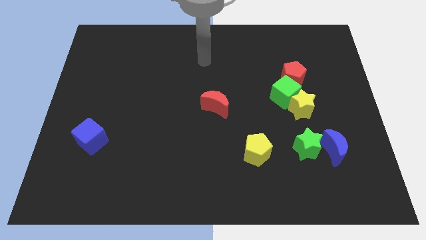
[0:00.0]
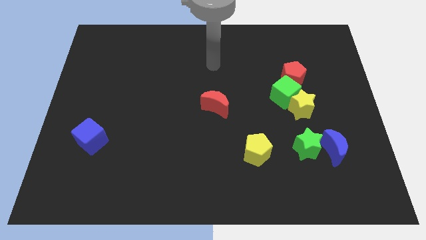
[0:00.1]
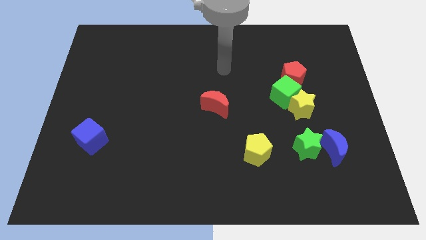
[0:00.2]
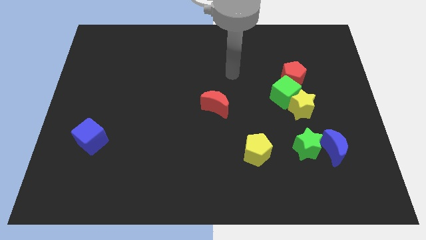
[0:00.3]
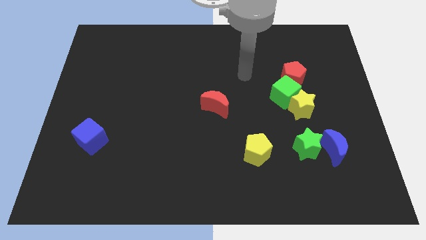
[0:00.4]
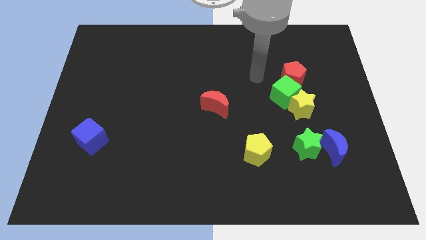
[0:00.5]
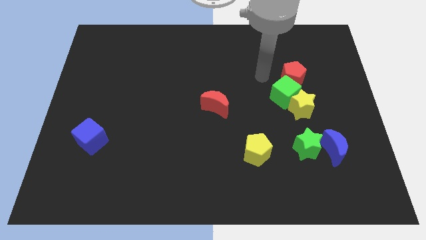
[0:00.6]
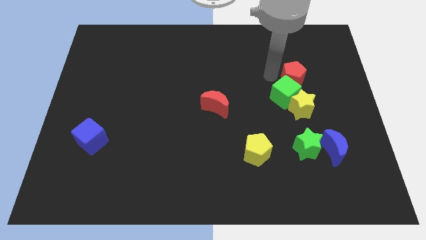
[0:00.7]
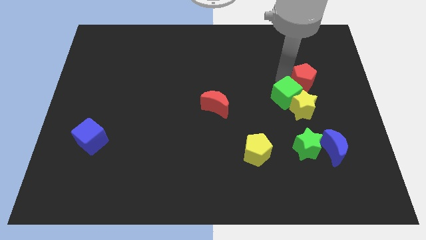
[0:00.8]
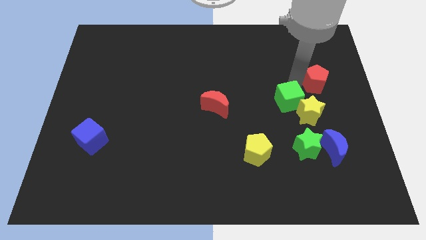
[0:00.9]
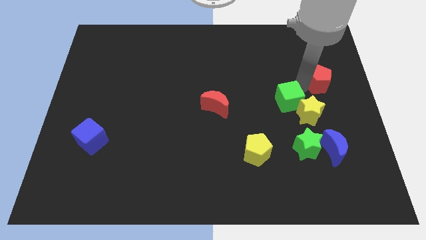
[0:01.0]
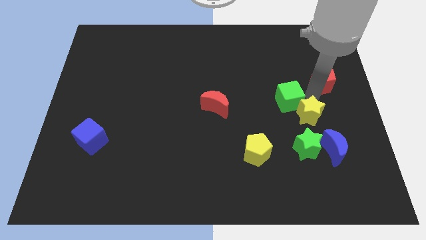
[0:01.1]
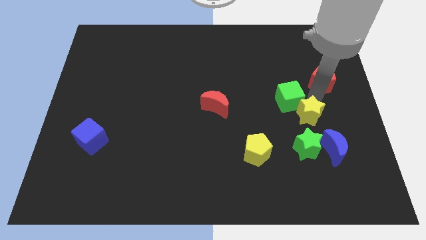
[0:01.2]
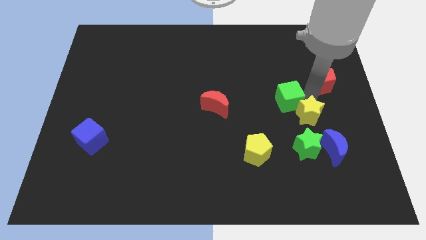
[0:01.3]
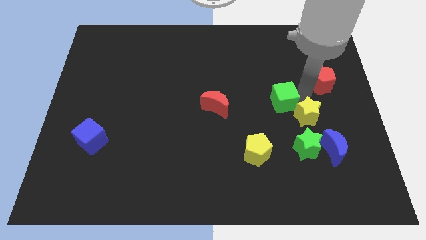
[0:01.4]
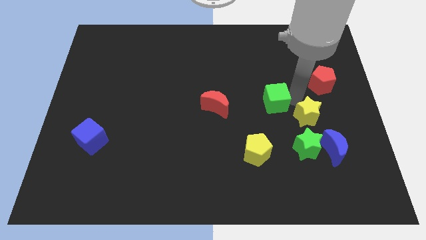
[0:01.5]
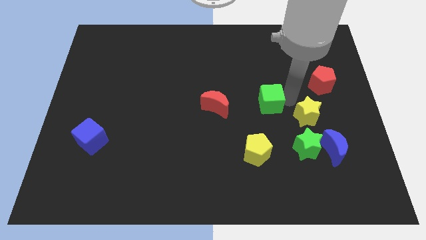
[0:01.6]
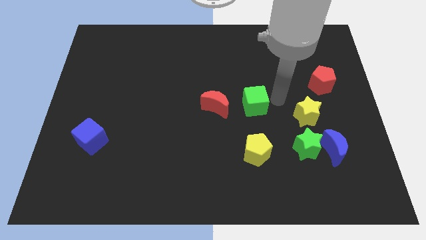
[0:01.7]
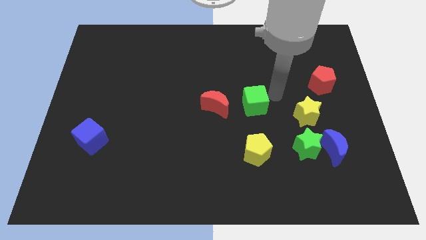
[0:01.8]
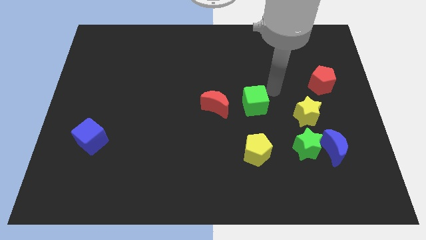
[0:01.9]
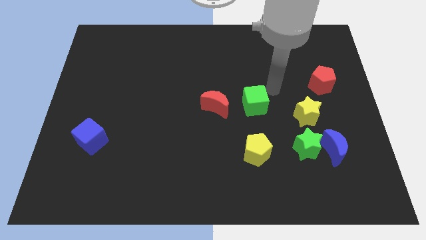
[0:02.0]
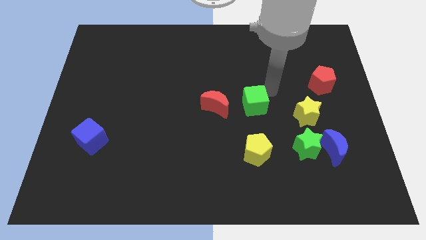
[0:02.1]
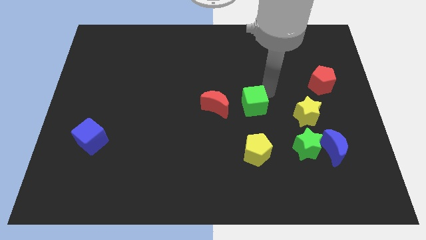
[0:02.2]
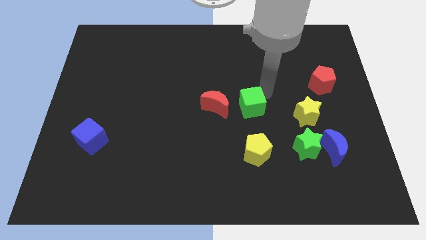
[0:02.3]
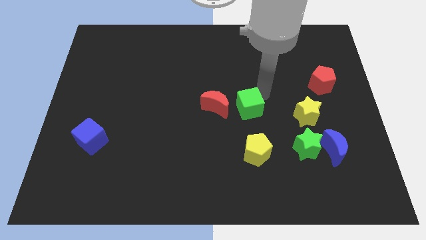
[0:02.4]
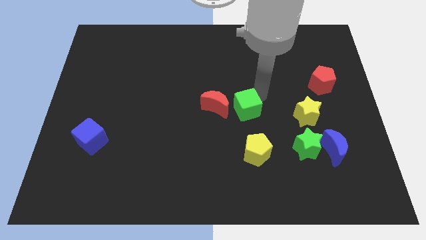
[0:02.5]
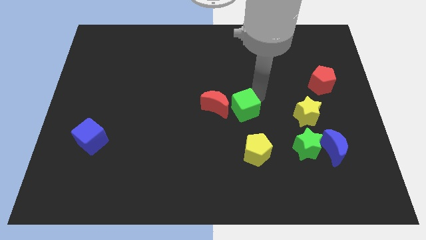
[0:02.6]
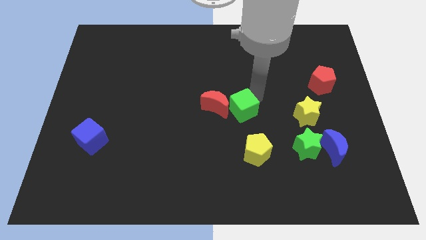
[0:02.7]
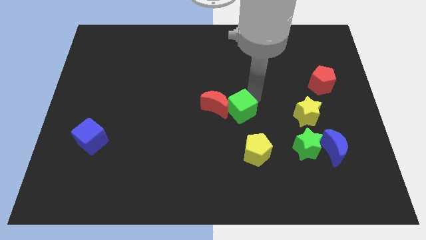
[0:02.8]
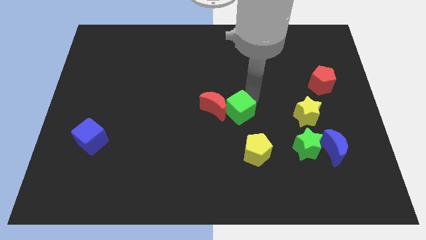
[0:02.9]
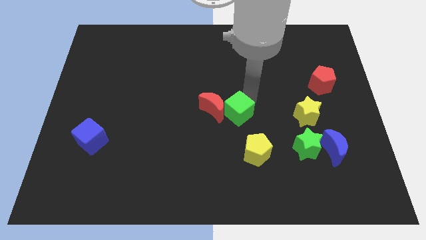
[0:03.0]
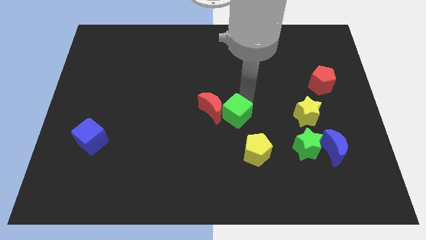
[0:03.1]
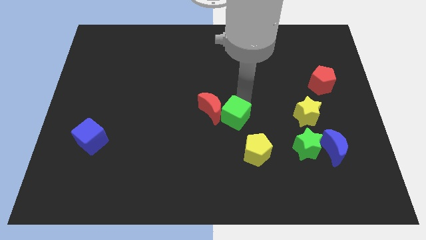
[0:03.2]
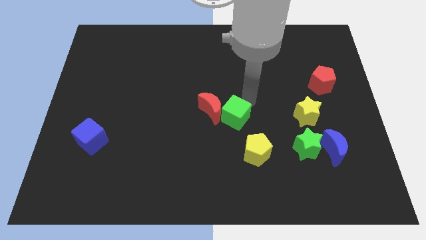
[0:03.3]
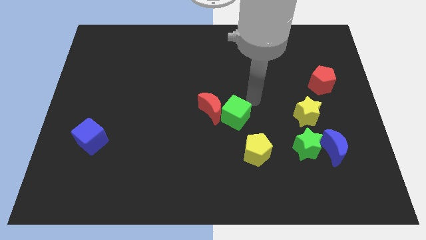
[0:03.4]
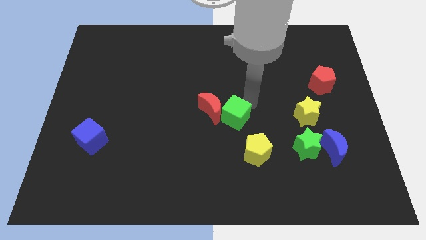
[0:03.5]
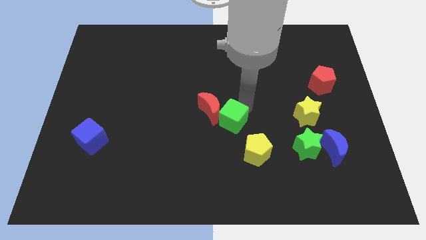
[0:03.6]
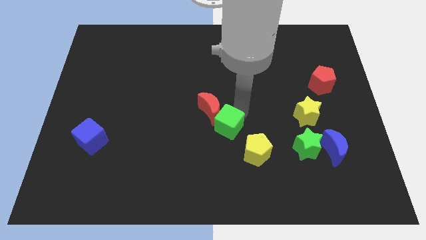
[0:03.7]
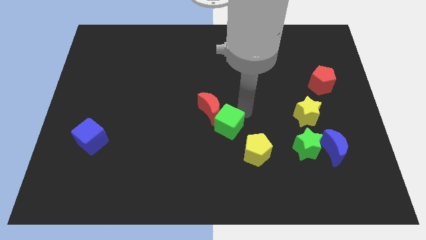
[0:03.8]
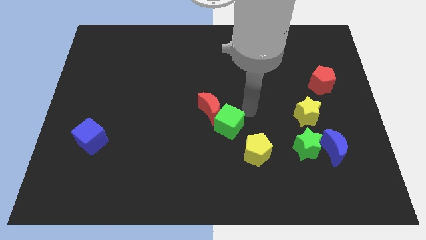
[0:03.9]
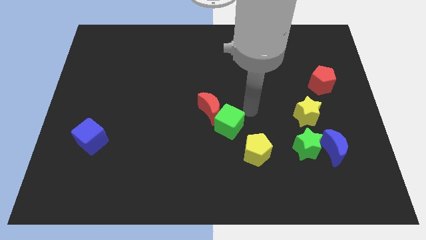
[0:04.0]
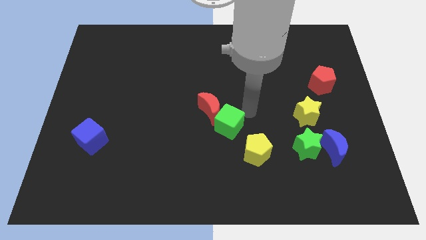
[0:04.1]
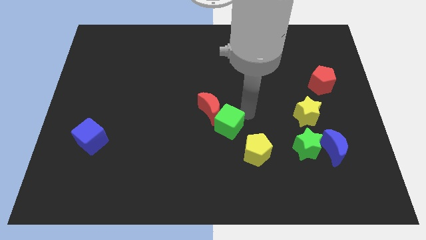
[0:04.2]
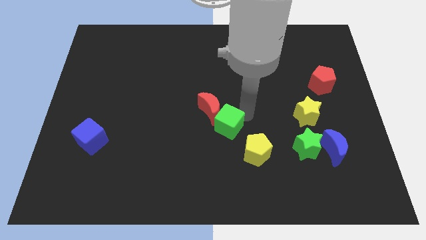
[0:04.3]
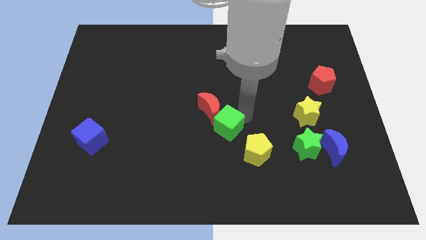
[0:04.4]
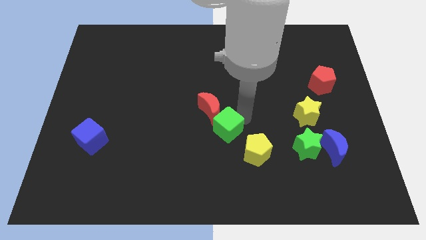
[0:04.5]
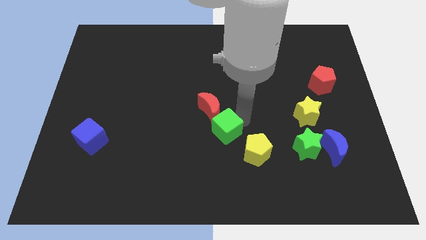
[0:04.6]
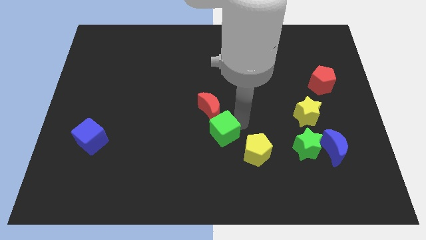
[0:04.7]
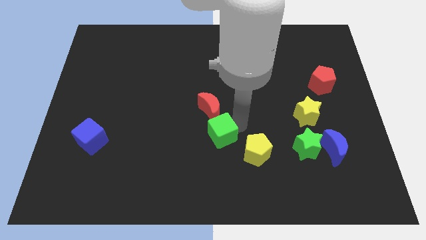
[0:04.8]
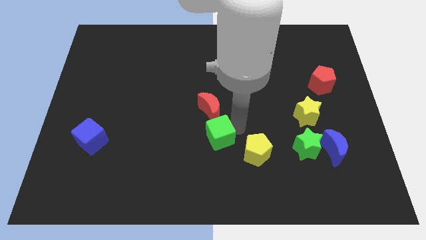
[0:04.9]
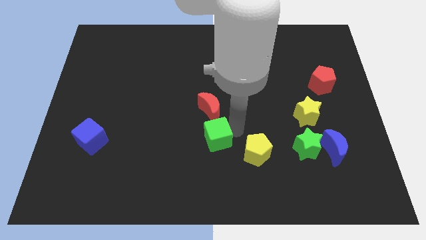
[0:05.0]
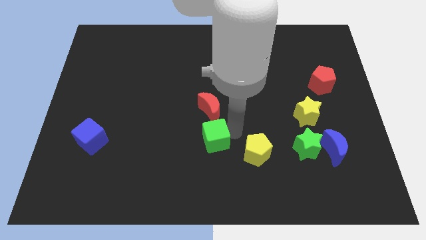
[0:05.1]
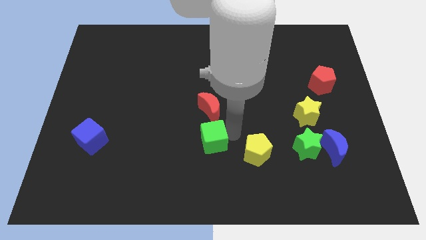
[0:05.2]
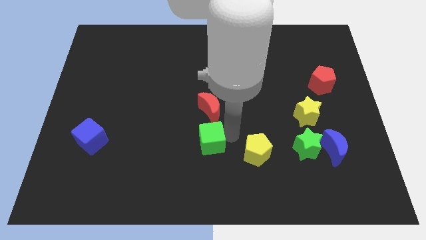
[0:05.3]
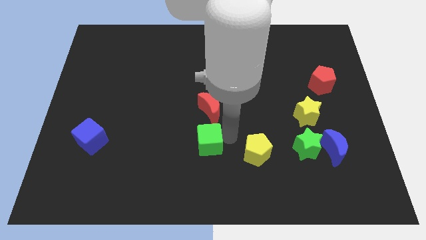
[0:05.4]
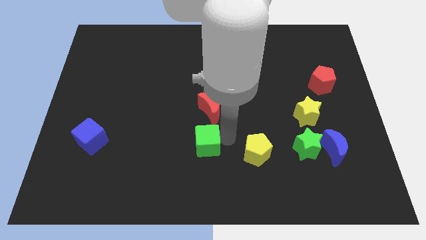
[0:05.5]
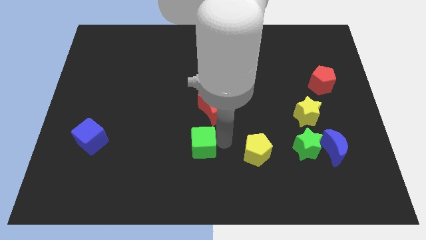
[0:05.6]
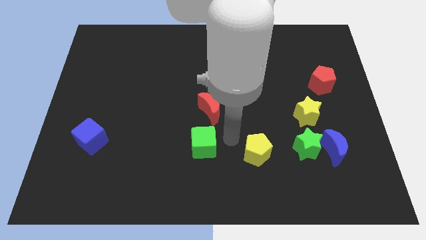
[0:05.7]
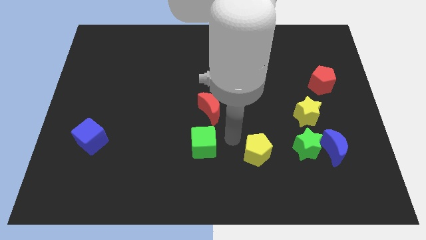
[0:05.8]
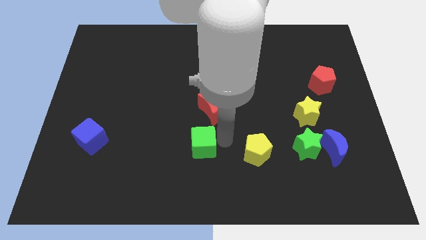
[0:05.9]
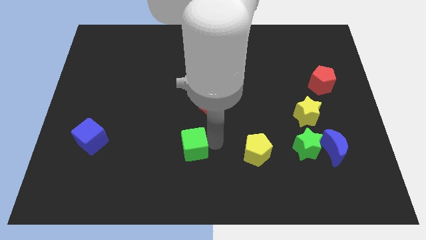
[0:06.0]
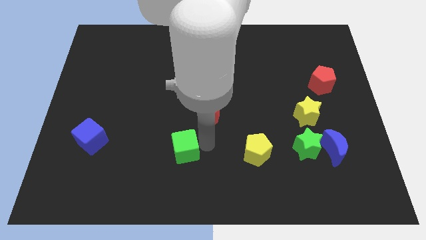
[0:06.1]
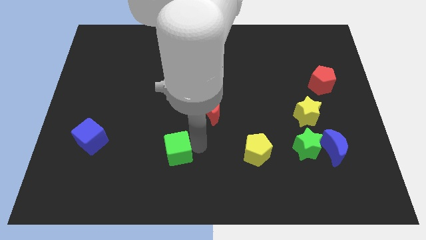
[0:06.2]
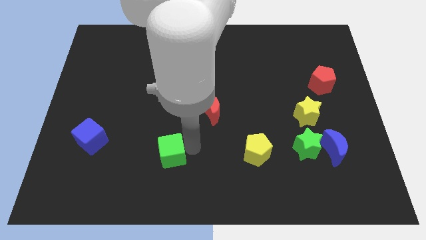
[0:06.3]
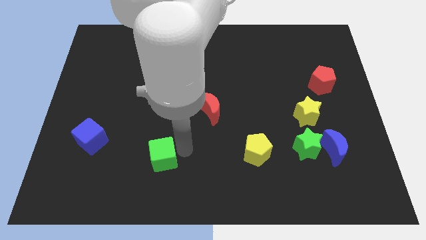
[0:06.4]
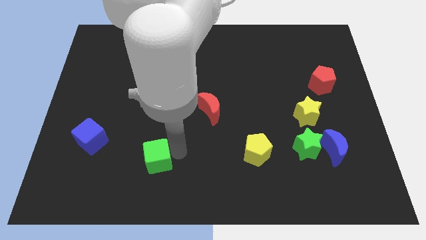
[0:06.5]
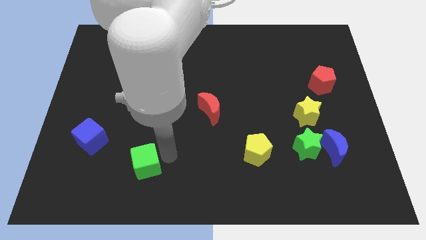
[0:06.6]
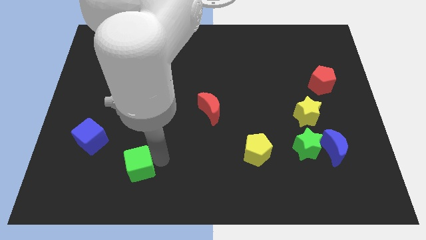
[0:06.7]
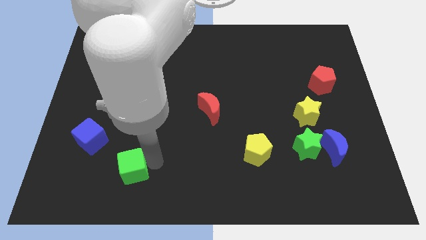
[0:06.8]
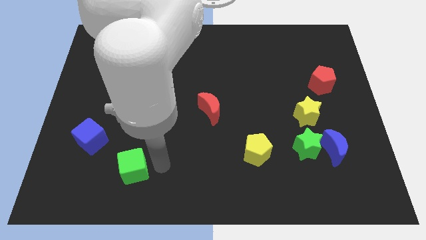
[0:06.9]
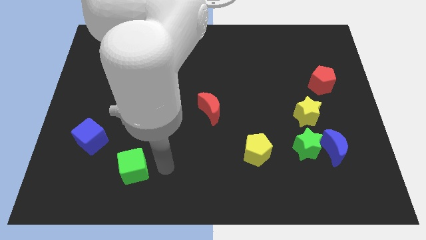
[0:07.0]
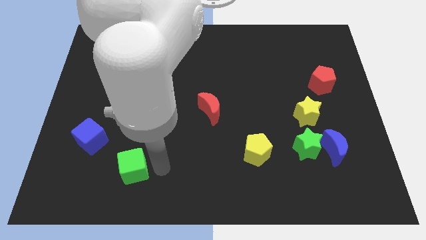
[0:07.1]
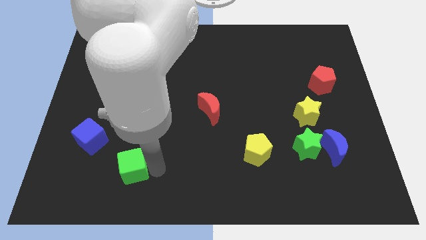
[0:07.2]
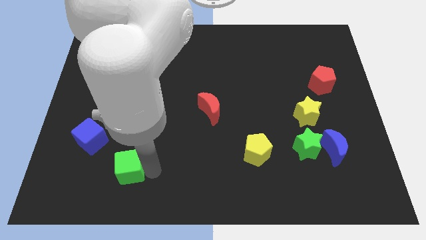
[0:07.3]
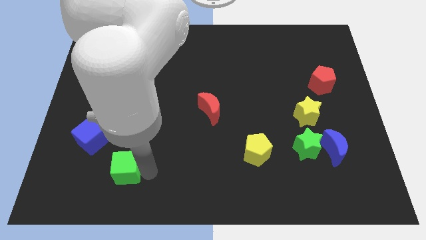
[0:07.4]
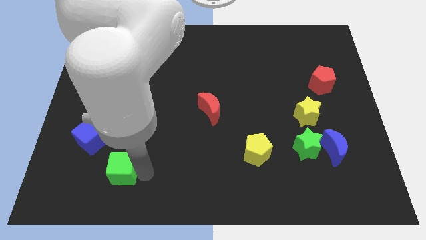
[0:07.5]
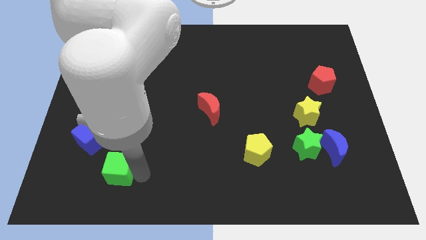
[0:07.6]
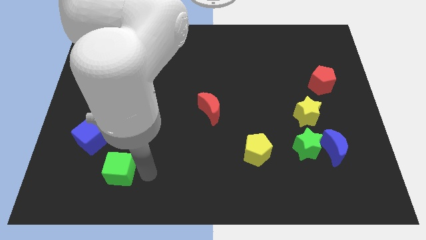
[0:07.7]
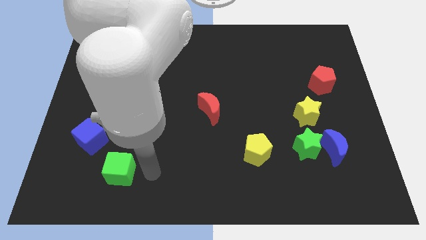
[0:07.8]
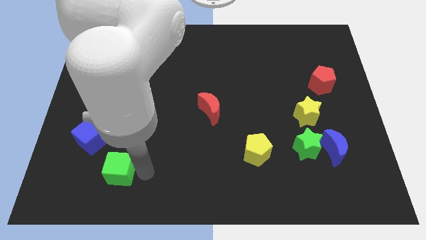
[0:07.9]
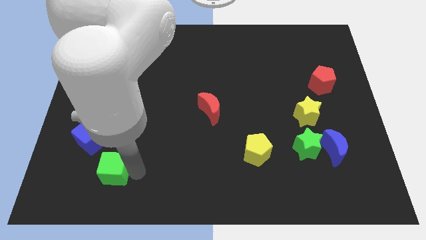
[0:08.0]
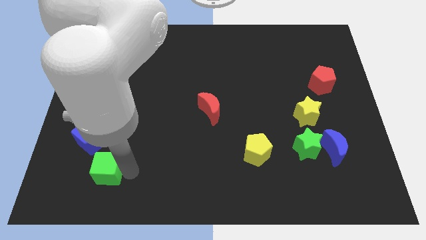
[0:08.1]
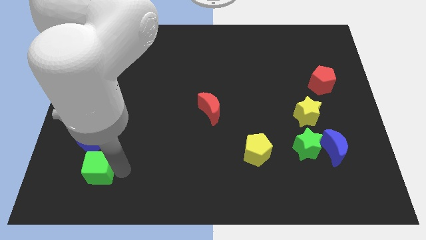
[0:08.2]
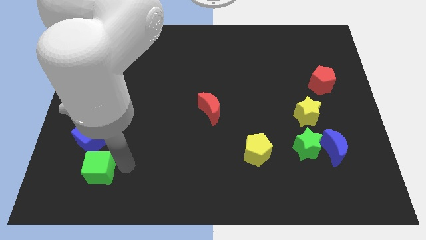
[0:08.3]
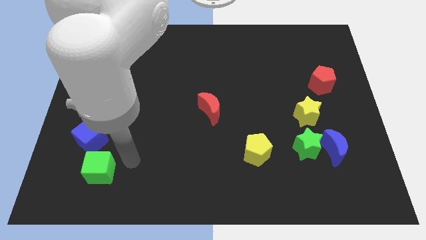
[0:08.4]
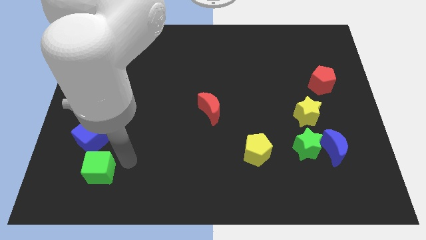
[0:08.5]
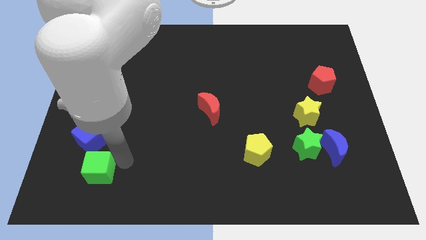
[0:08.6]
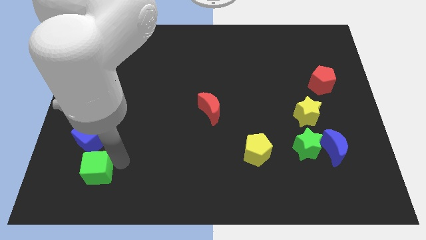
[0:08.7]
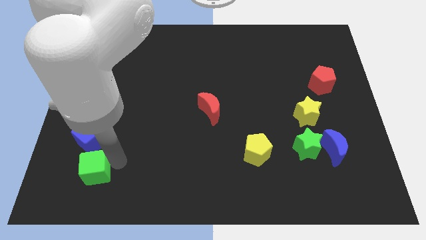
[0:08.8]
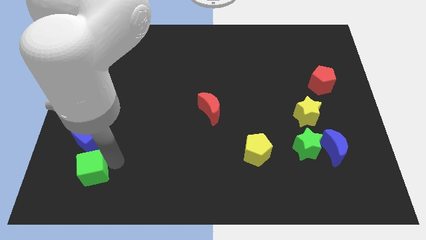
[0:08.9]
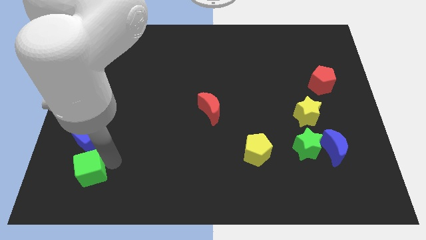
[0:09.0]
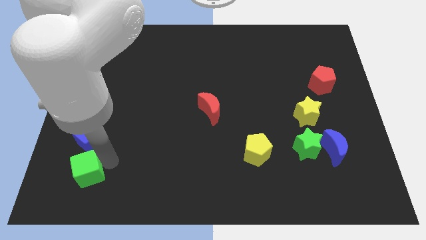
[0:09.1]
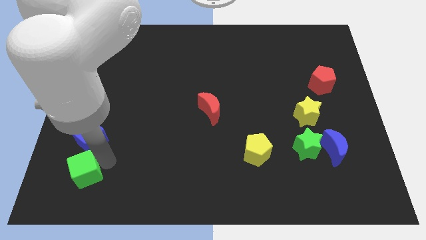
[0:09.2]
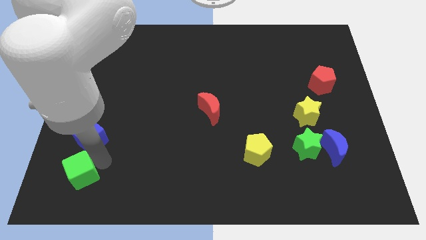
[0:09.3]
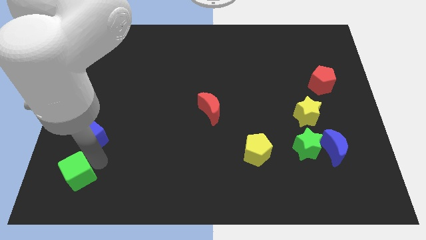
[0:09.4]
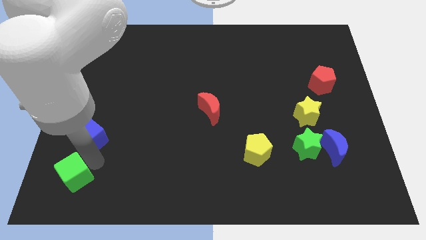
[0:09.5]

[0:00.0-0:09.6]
move the green cube to the bottom left
